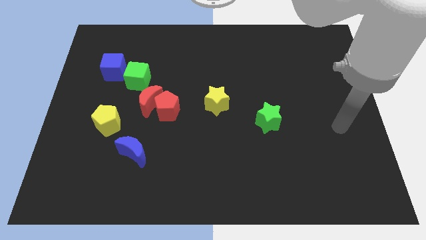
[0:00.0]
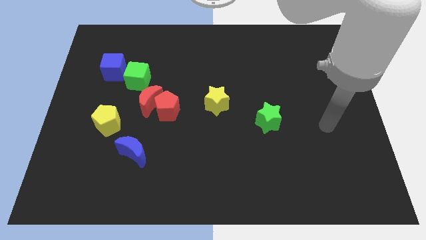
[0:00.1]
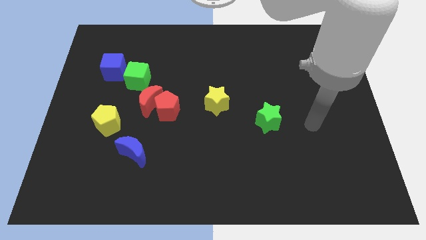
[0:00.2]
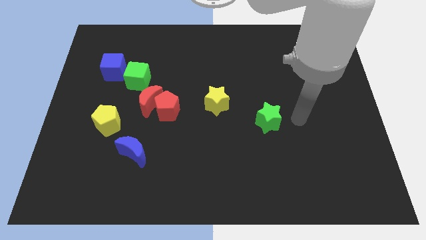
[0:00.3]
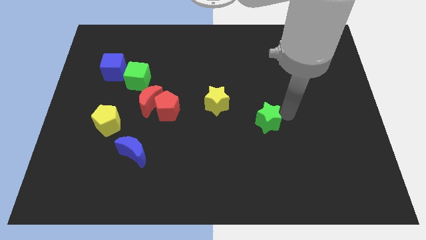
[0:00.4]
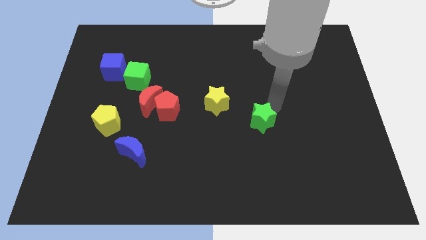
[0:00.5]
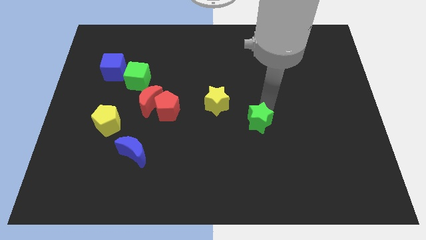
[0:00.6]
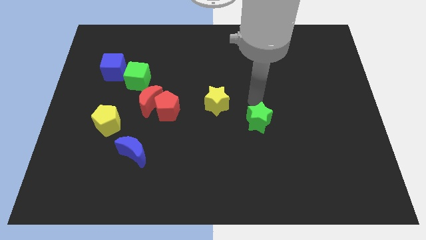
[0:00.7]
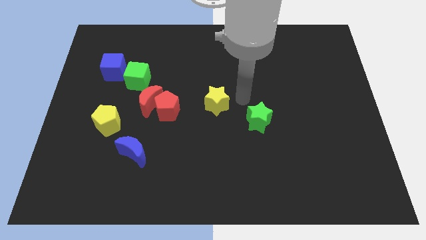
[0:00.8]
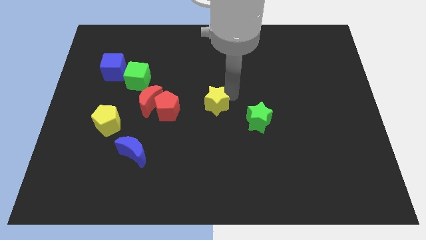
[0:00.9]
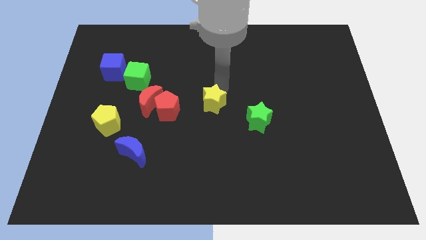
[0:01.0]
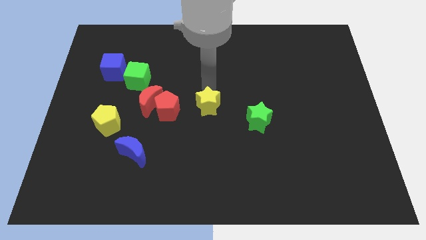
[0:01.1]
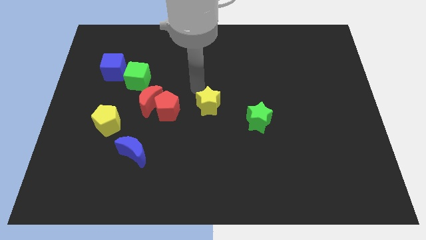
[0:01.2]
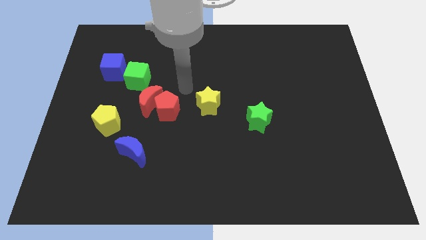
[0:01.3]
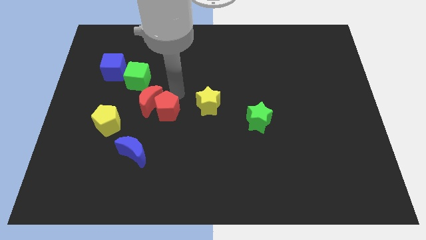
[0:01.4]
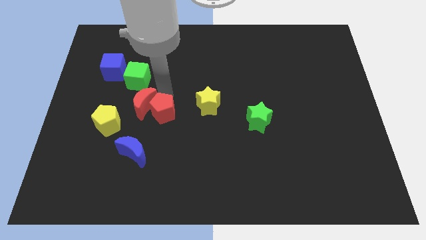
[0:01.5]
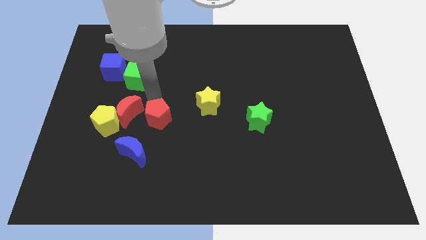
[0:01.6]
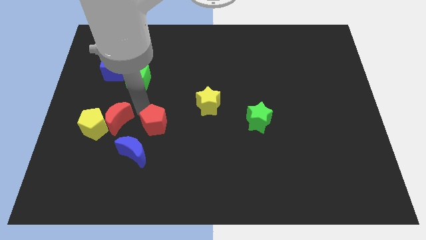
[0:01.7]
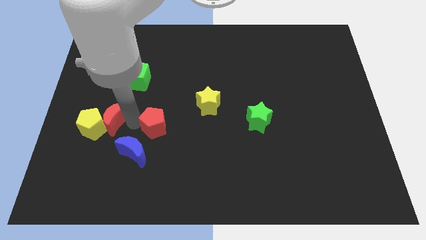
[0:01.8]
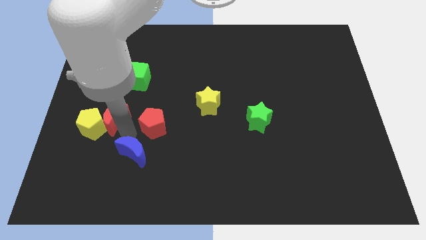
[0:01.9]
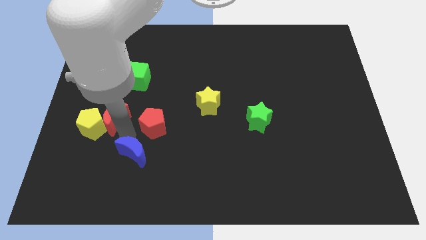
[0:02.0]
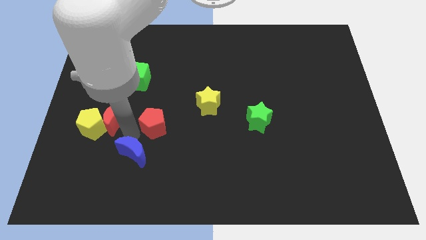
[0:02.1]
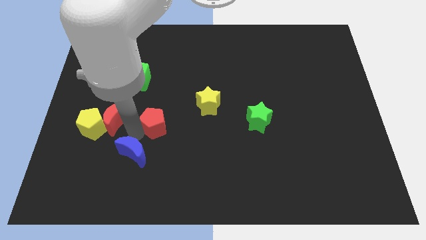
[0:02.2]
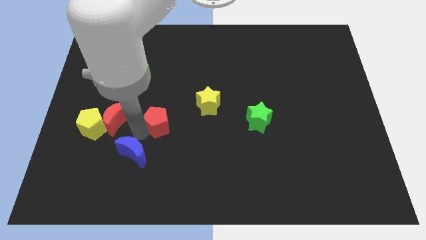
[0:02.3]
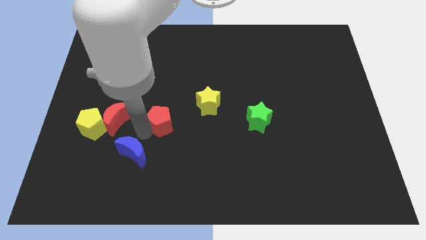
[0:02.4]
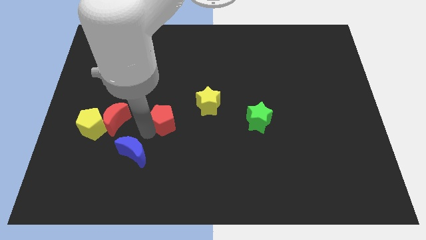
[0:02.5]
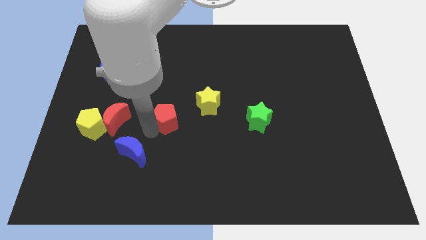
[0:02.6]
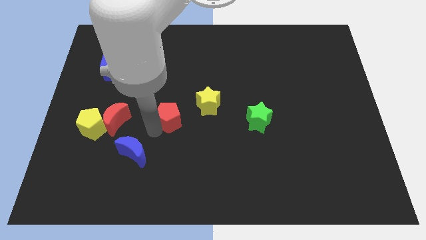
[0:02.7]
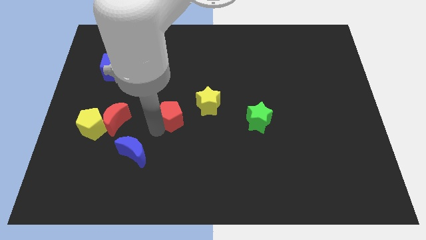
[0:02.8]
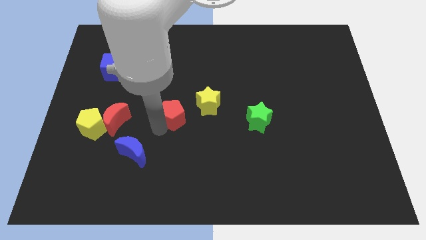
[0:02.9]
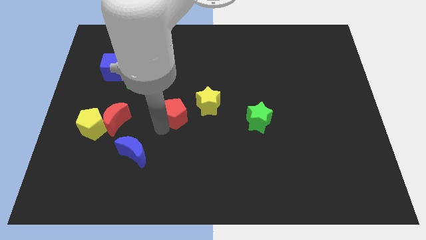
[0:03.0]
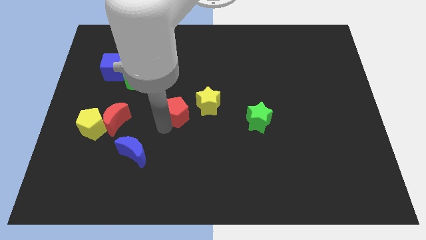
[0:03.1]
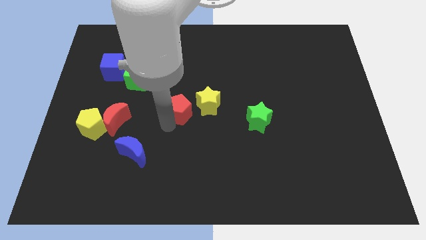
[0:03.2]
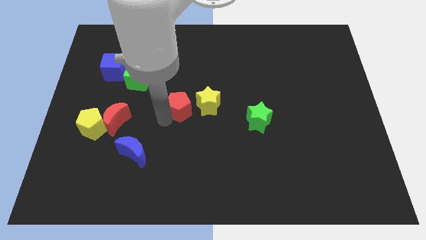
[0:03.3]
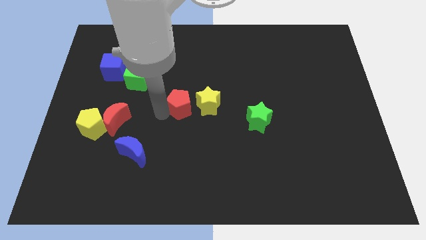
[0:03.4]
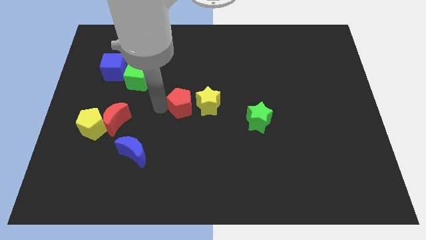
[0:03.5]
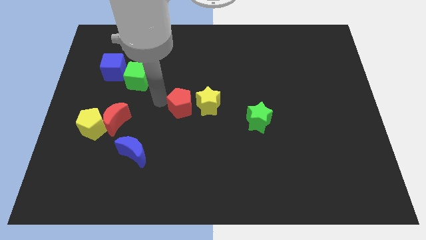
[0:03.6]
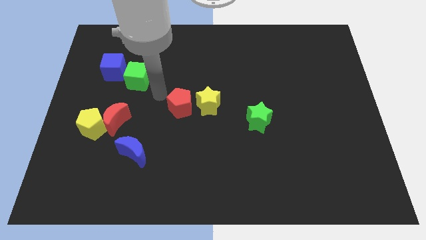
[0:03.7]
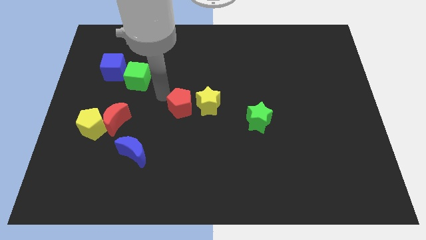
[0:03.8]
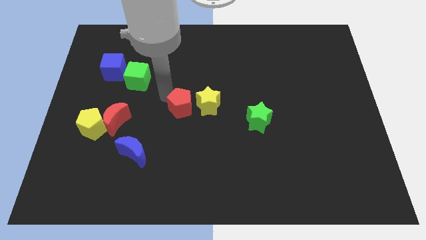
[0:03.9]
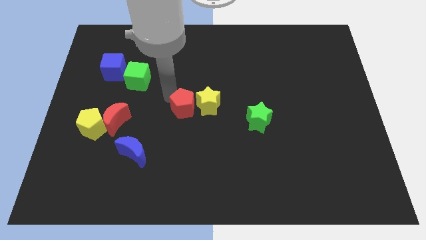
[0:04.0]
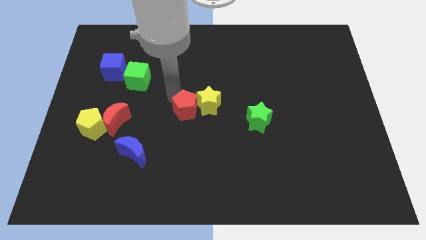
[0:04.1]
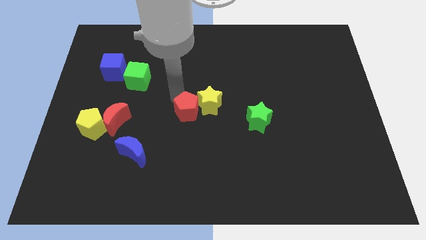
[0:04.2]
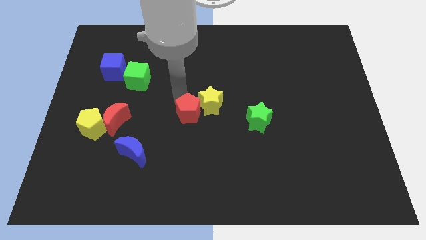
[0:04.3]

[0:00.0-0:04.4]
push the red pentagon just left of the green star

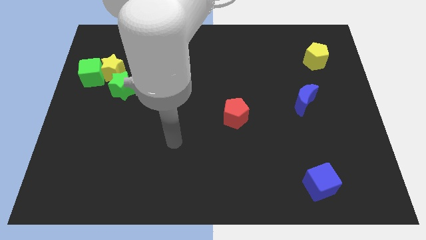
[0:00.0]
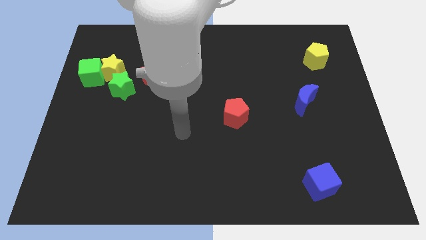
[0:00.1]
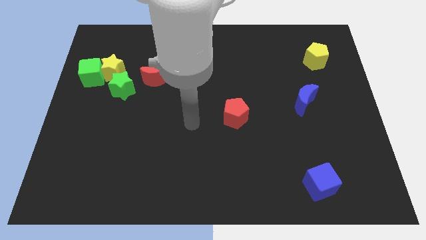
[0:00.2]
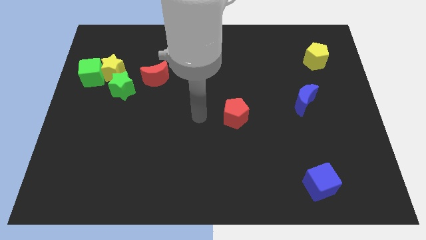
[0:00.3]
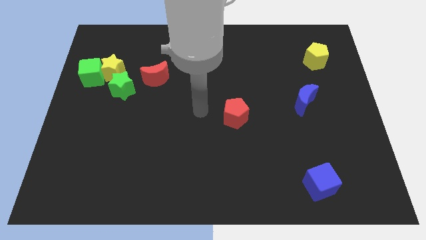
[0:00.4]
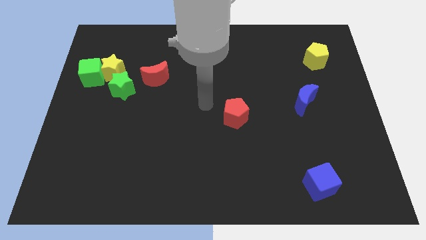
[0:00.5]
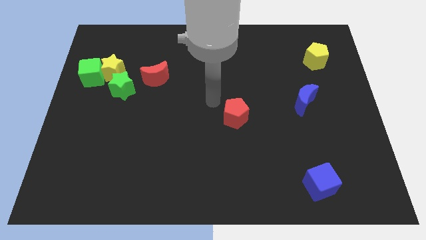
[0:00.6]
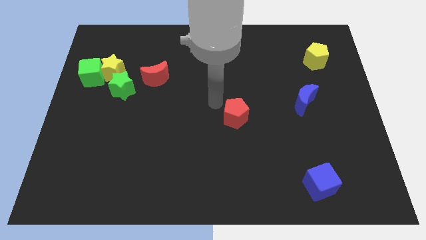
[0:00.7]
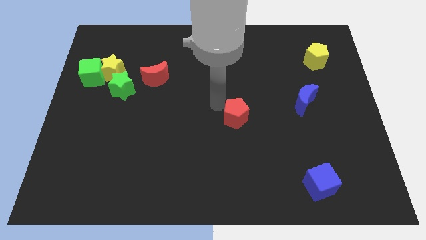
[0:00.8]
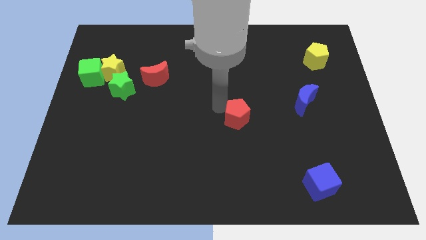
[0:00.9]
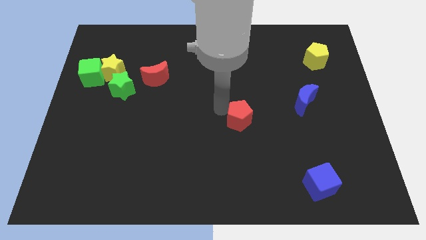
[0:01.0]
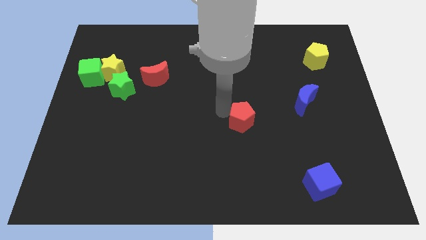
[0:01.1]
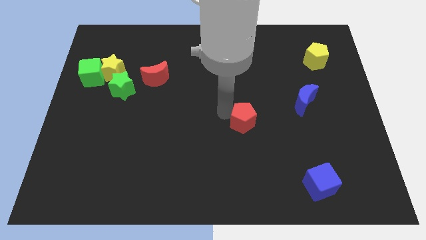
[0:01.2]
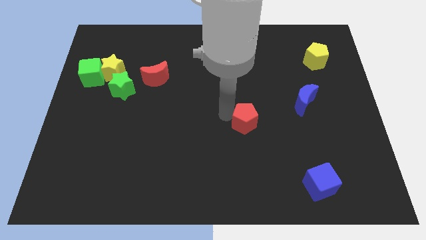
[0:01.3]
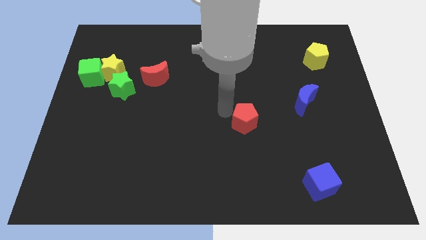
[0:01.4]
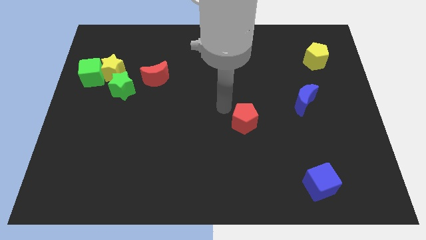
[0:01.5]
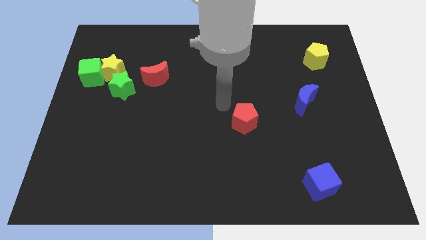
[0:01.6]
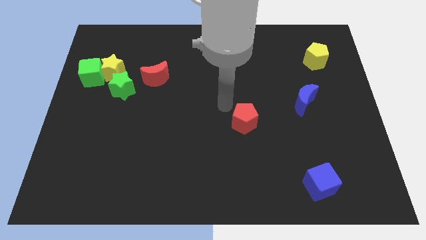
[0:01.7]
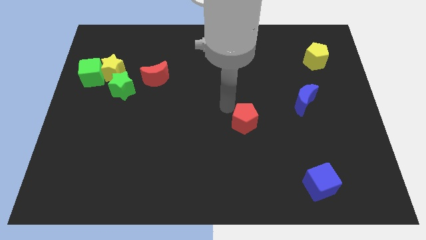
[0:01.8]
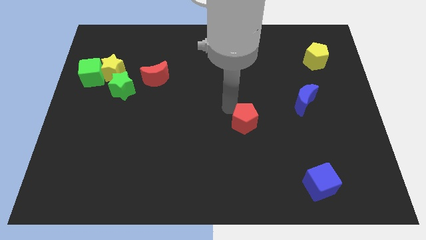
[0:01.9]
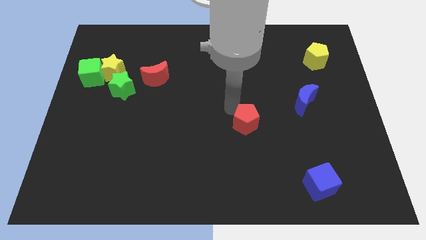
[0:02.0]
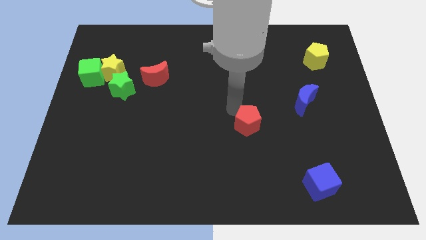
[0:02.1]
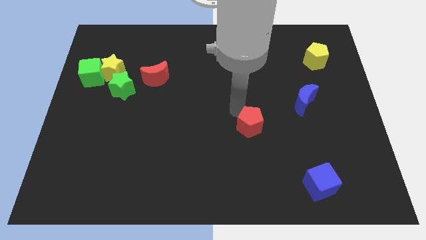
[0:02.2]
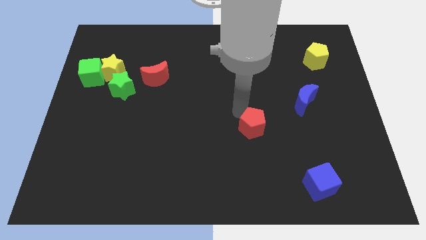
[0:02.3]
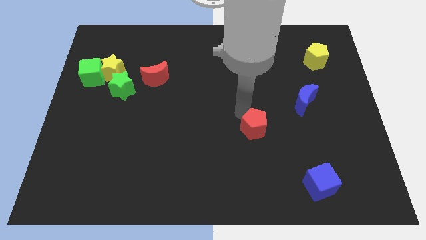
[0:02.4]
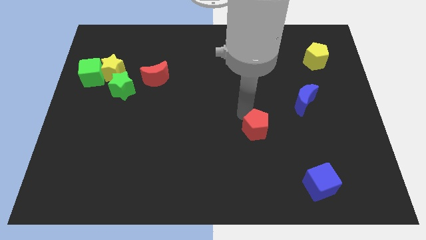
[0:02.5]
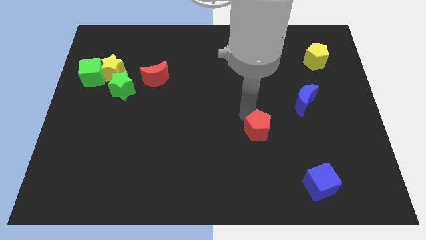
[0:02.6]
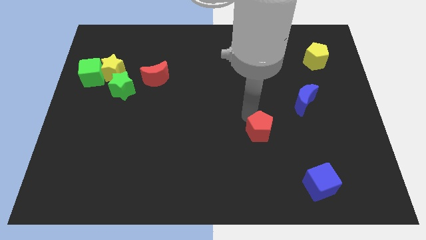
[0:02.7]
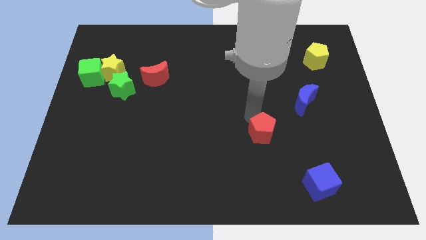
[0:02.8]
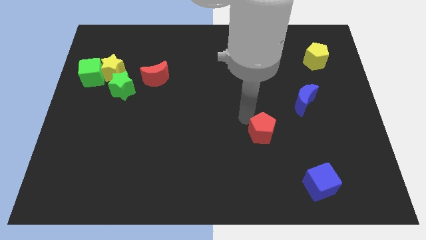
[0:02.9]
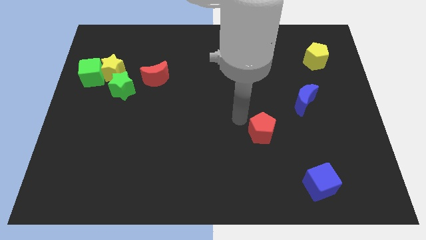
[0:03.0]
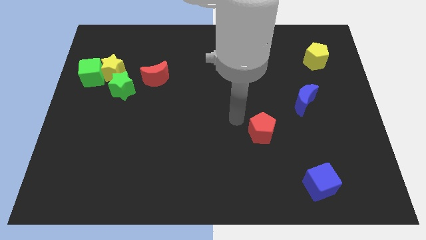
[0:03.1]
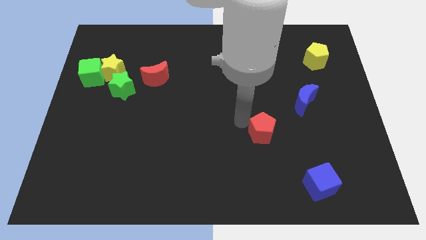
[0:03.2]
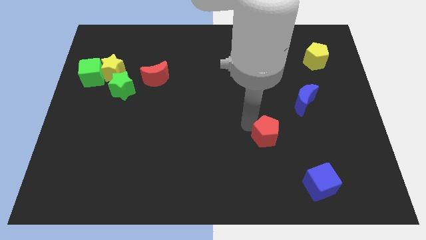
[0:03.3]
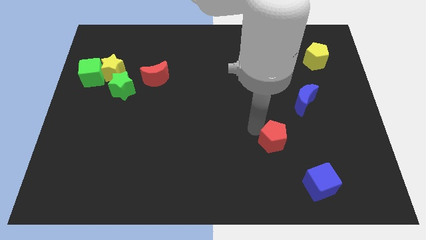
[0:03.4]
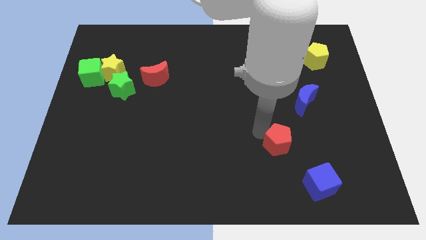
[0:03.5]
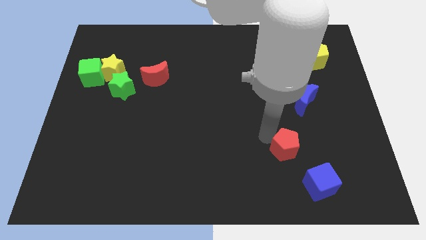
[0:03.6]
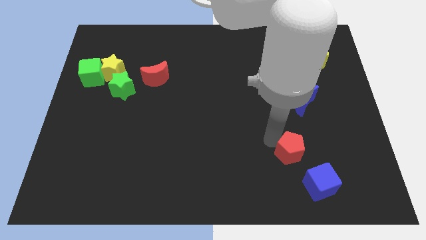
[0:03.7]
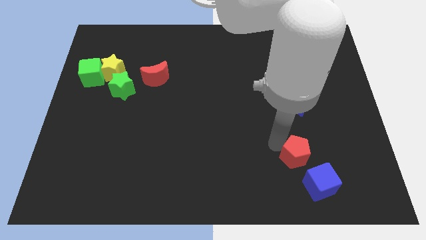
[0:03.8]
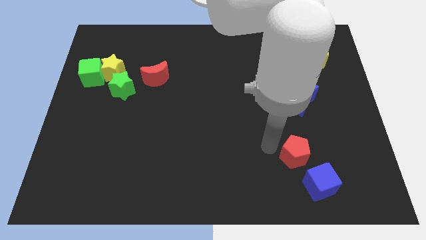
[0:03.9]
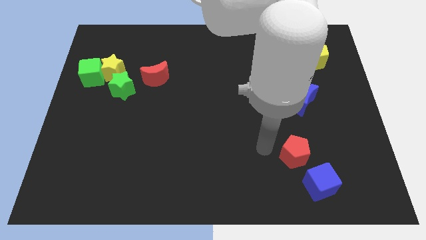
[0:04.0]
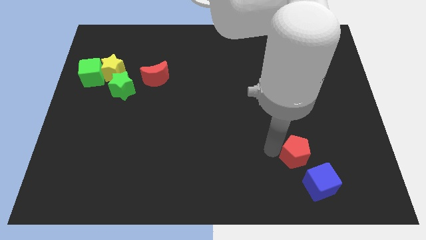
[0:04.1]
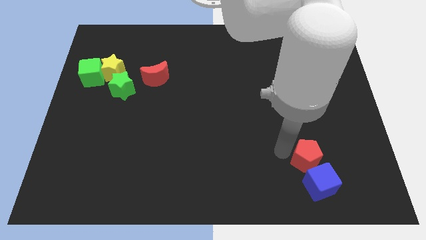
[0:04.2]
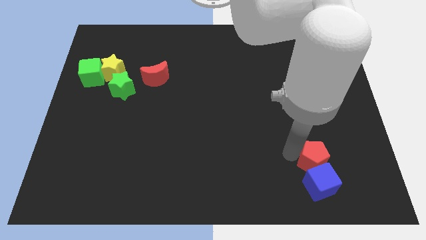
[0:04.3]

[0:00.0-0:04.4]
push the red pentagon diagonally up and to the right of the blue cube
